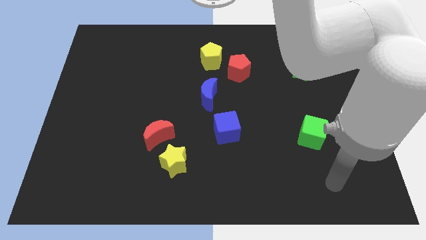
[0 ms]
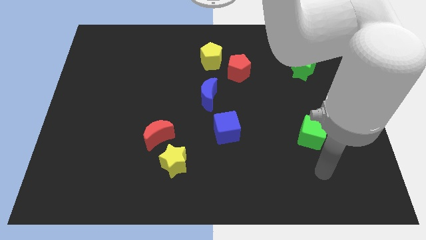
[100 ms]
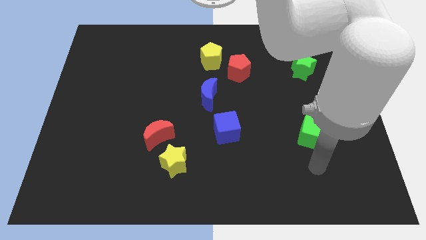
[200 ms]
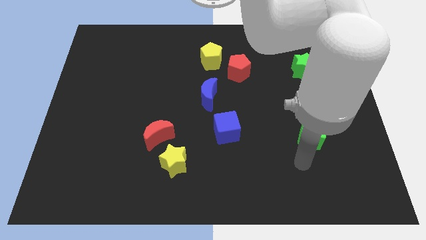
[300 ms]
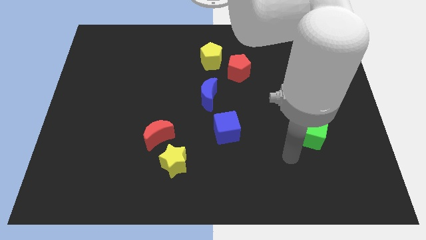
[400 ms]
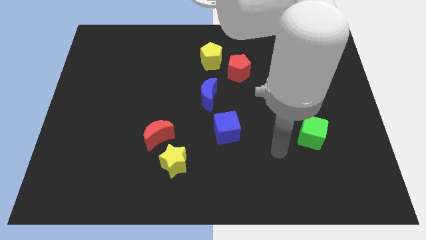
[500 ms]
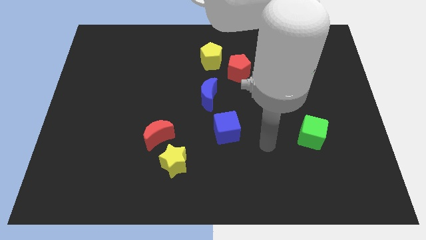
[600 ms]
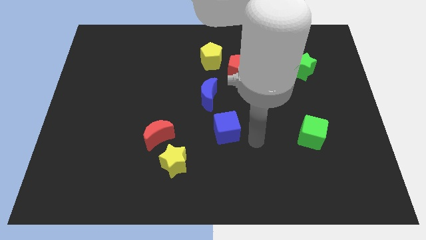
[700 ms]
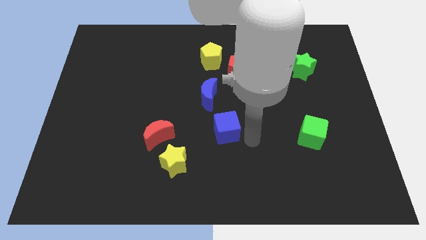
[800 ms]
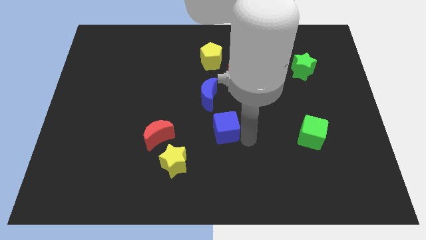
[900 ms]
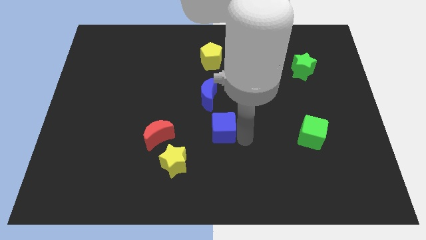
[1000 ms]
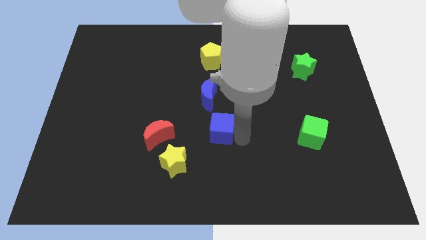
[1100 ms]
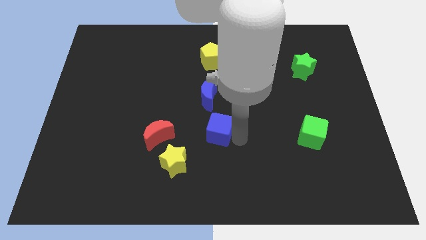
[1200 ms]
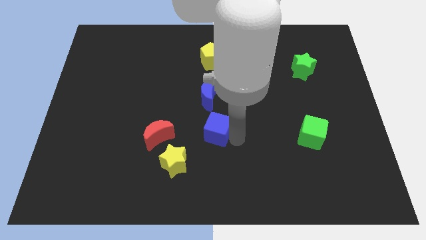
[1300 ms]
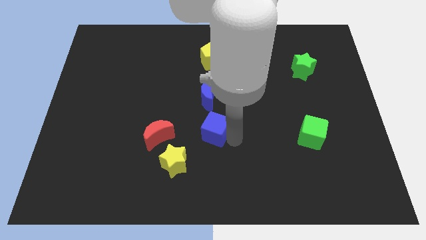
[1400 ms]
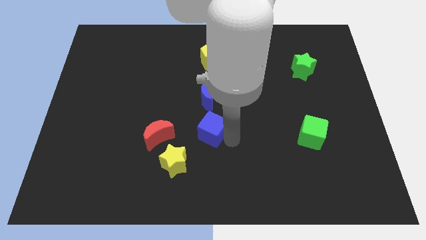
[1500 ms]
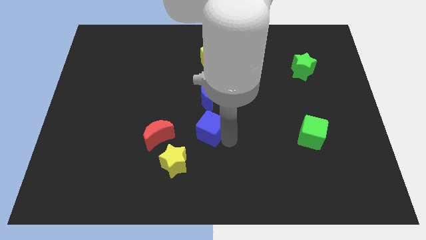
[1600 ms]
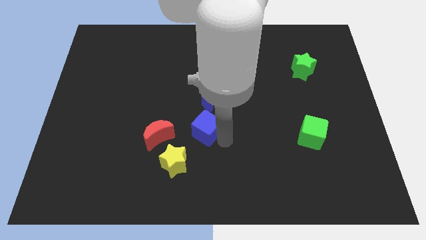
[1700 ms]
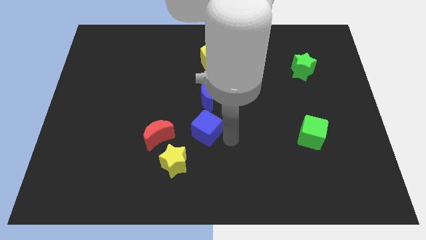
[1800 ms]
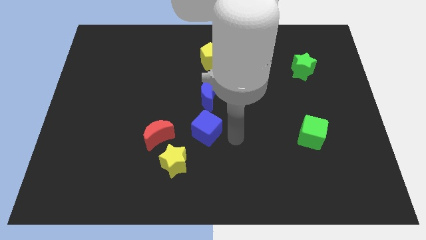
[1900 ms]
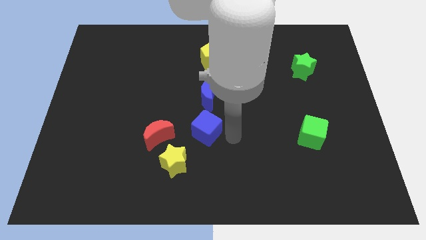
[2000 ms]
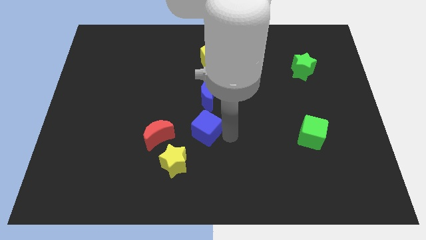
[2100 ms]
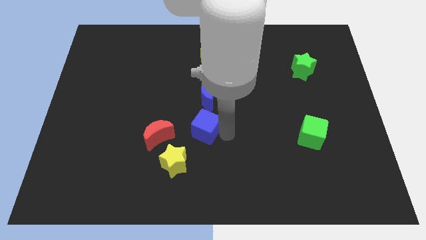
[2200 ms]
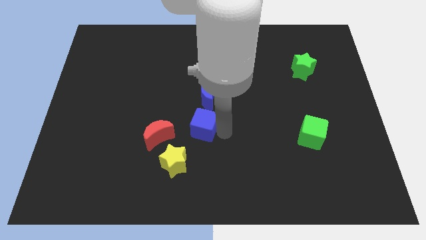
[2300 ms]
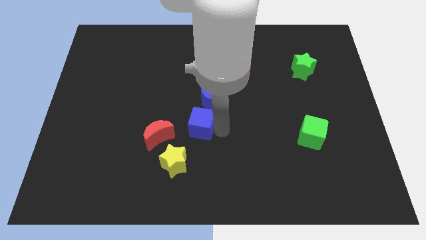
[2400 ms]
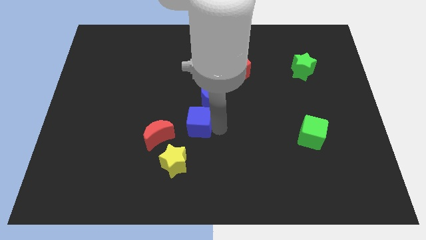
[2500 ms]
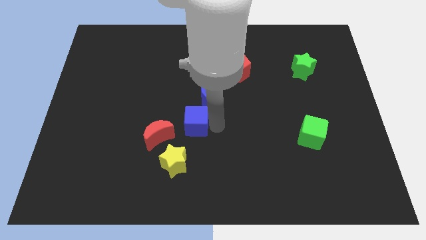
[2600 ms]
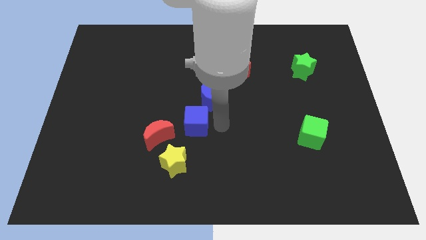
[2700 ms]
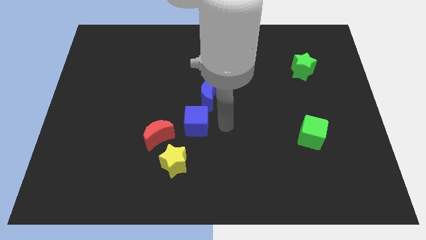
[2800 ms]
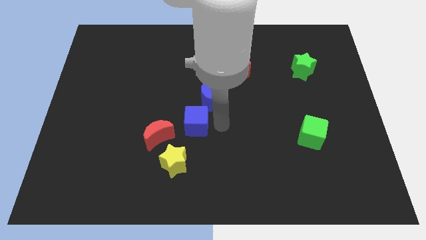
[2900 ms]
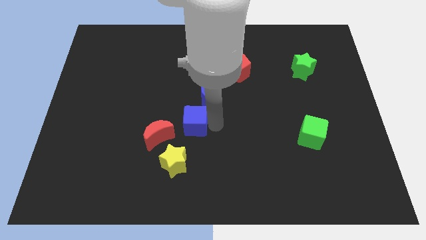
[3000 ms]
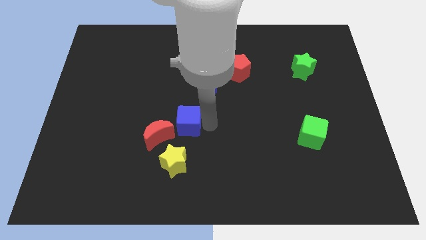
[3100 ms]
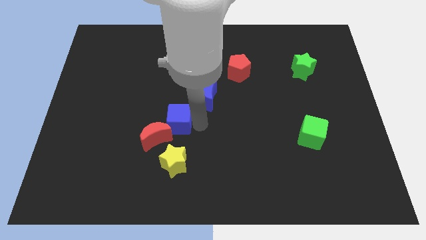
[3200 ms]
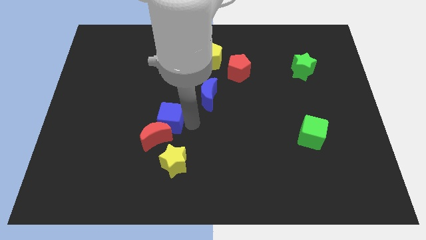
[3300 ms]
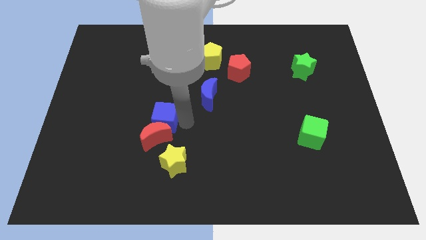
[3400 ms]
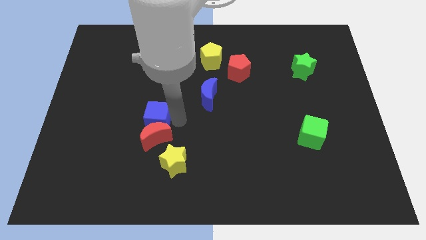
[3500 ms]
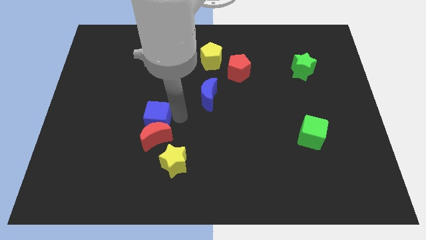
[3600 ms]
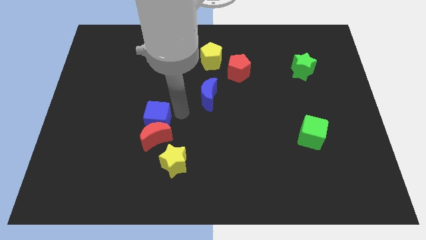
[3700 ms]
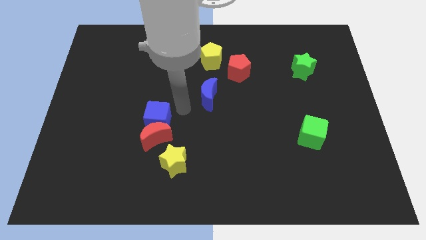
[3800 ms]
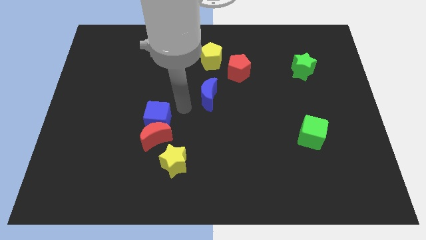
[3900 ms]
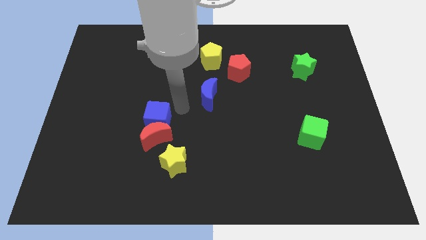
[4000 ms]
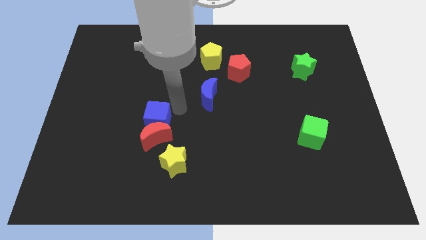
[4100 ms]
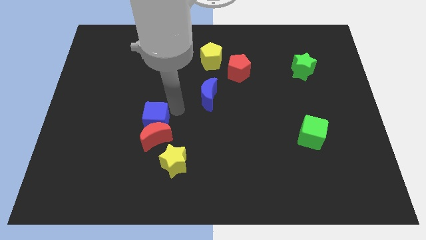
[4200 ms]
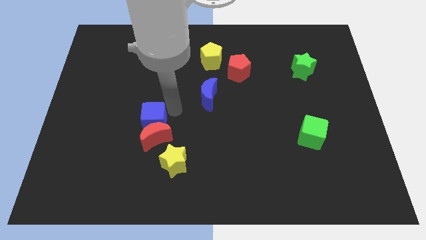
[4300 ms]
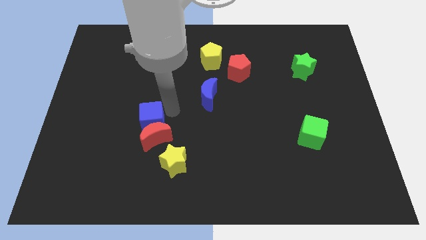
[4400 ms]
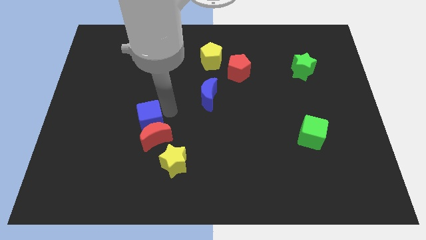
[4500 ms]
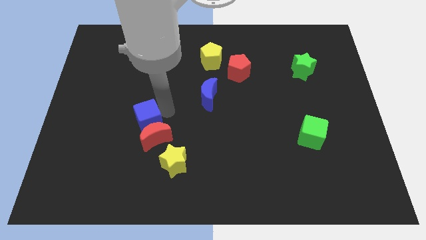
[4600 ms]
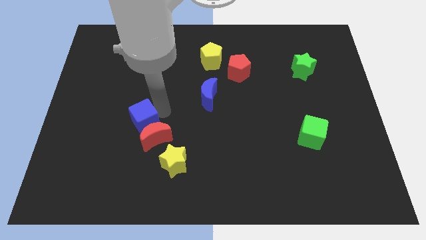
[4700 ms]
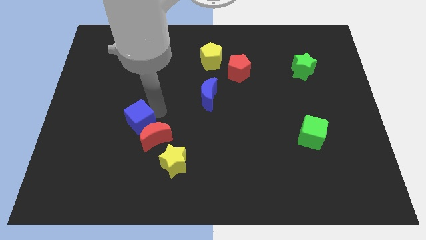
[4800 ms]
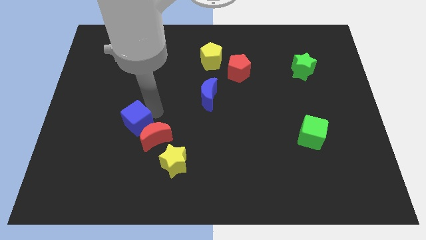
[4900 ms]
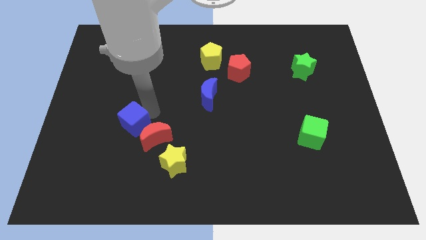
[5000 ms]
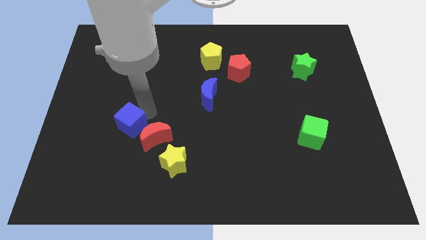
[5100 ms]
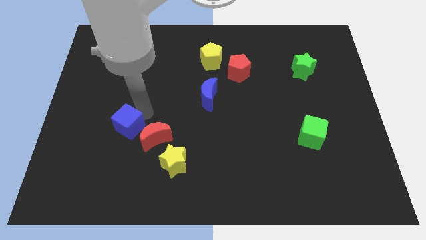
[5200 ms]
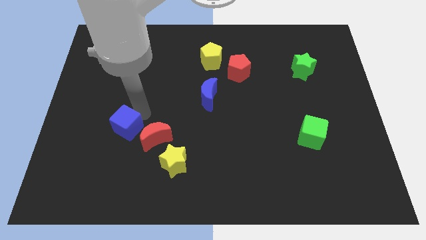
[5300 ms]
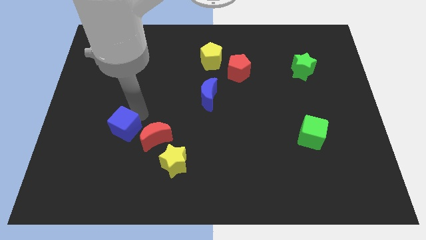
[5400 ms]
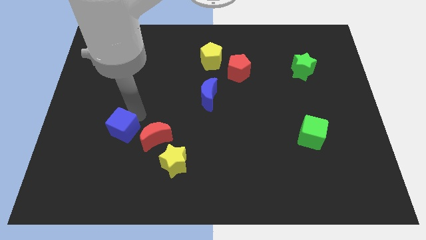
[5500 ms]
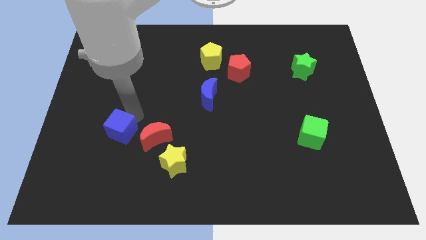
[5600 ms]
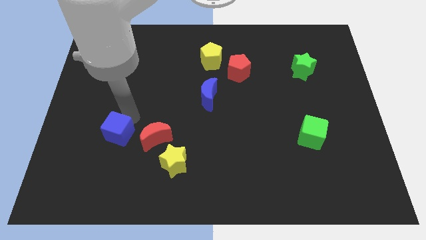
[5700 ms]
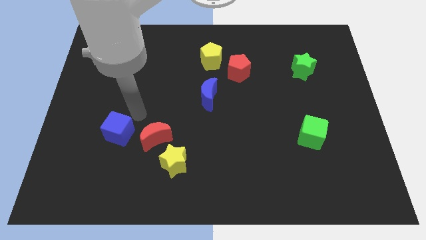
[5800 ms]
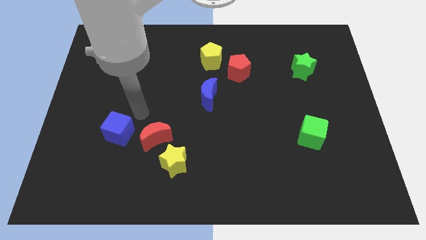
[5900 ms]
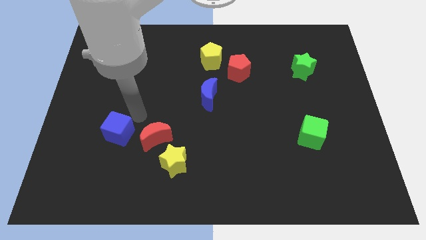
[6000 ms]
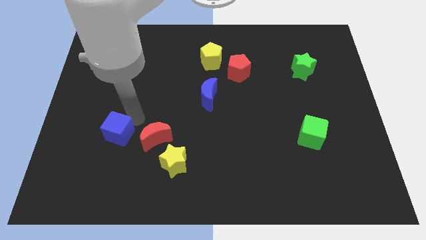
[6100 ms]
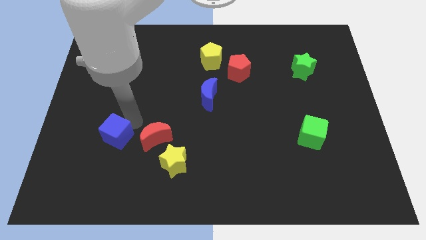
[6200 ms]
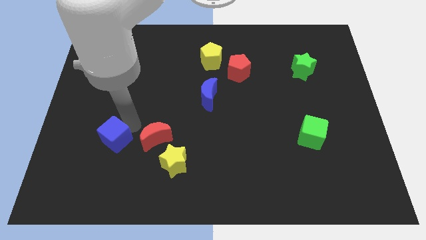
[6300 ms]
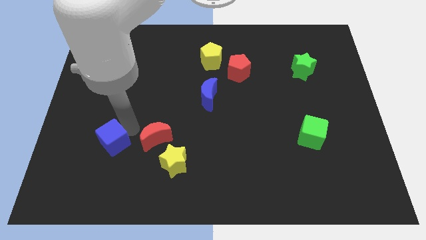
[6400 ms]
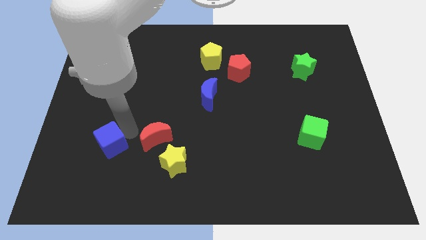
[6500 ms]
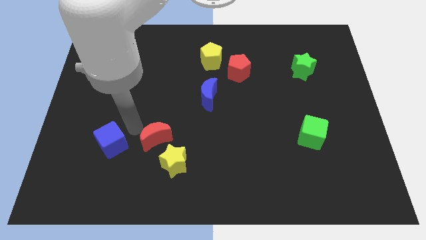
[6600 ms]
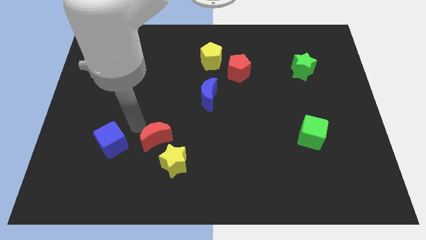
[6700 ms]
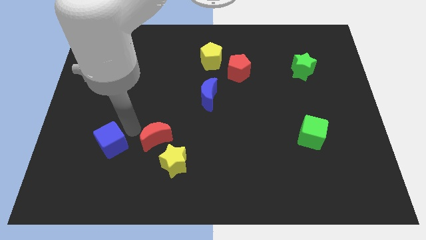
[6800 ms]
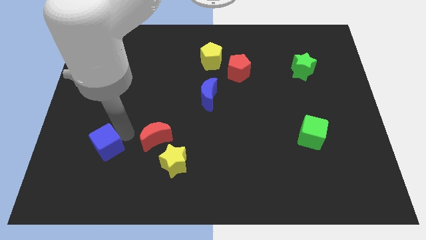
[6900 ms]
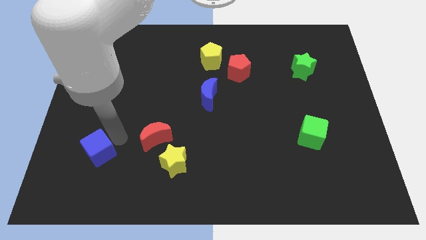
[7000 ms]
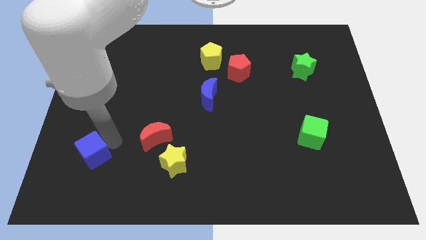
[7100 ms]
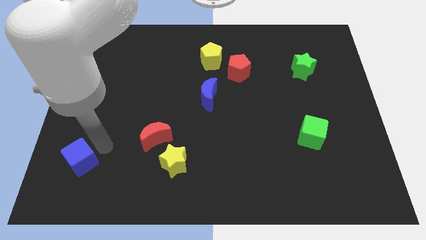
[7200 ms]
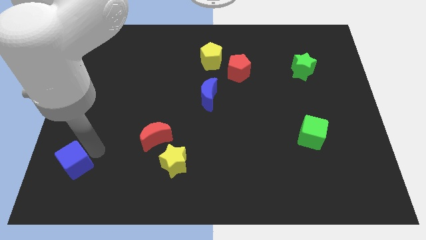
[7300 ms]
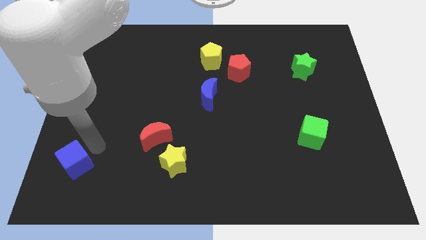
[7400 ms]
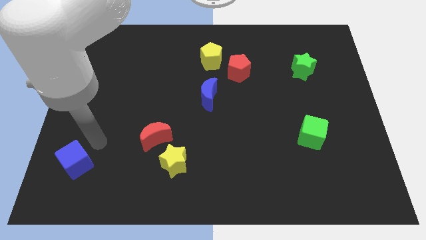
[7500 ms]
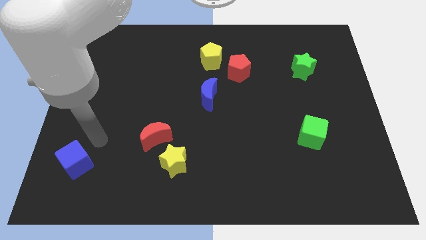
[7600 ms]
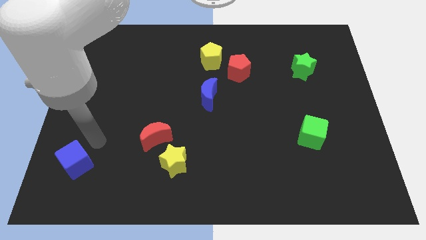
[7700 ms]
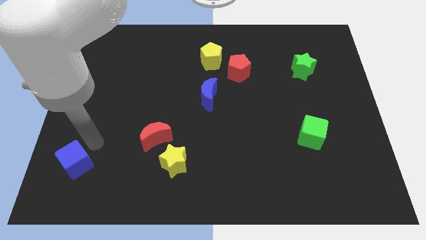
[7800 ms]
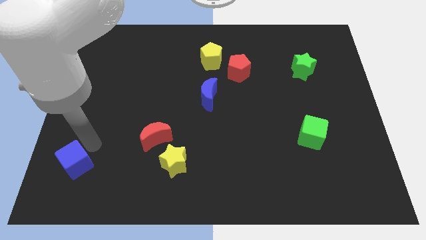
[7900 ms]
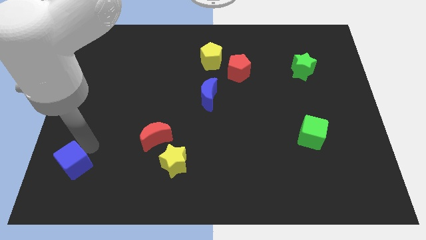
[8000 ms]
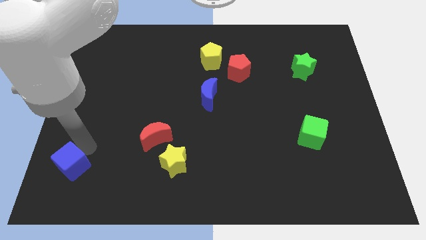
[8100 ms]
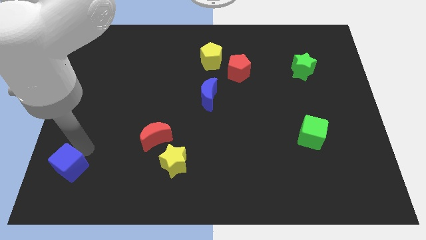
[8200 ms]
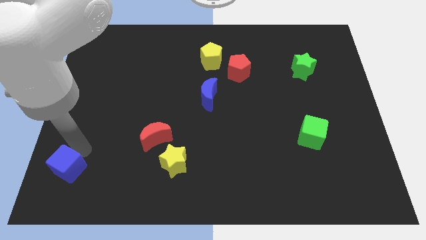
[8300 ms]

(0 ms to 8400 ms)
push the blue cube to the bottom left corner
